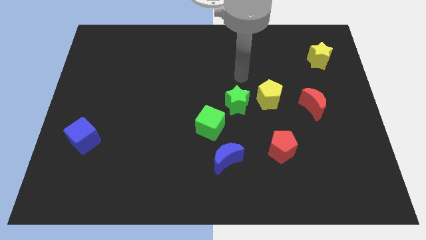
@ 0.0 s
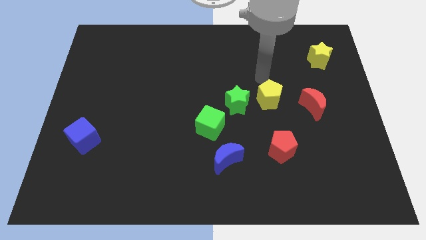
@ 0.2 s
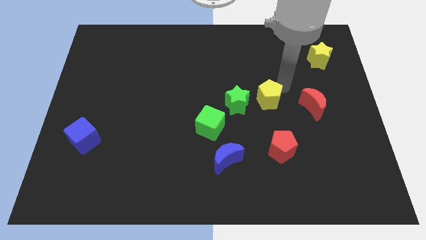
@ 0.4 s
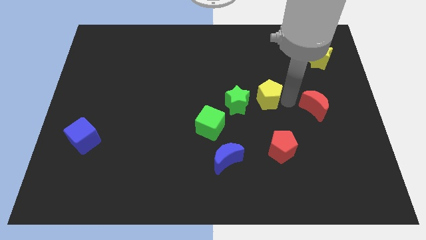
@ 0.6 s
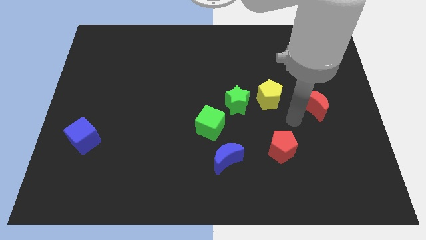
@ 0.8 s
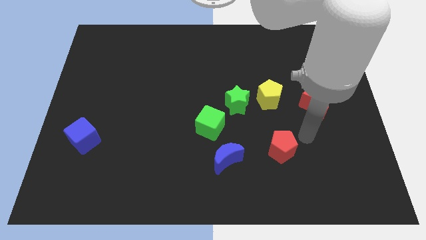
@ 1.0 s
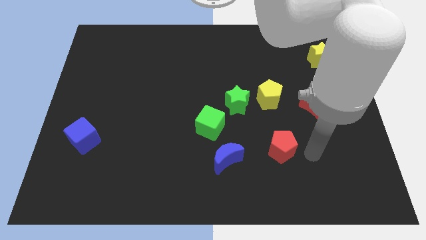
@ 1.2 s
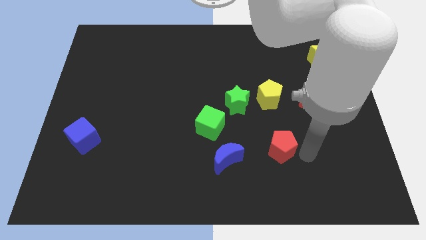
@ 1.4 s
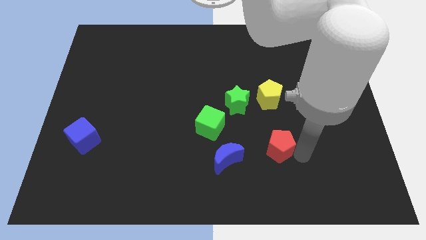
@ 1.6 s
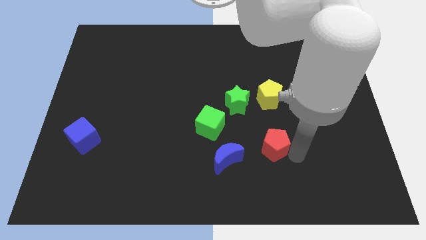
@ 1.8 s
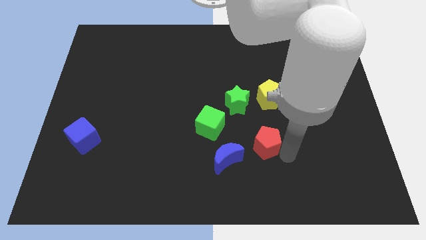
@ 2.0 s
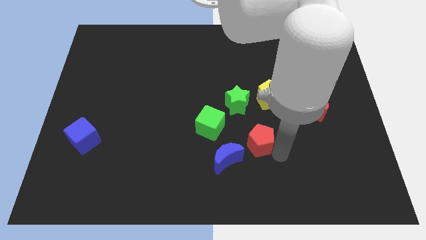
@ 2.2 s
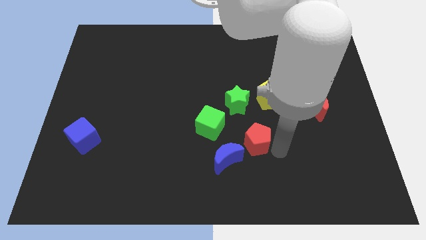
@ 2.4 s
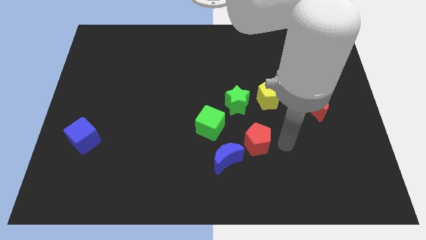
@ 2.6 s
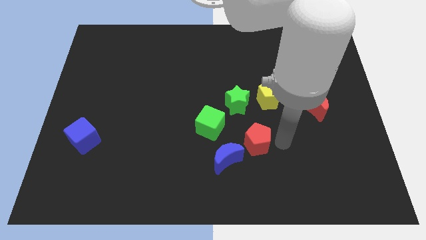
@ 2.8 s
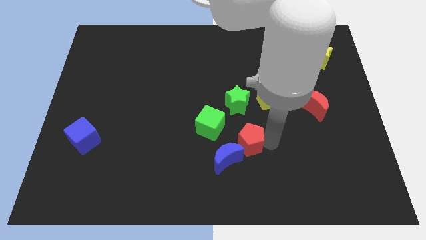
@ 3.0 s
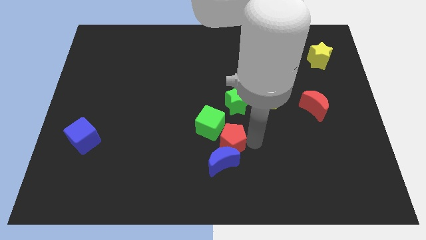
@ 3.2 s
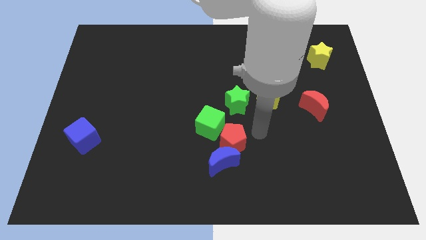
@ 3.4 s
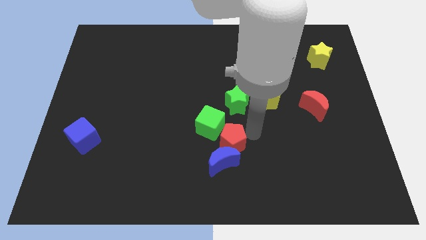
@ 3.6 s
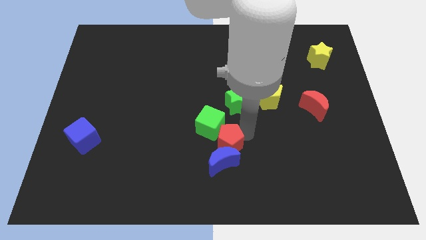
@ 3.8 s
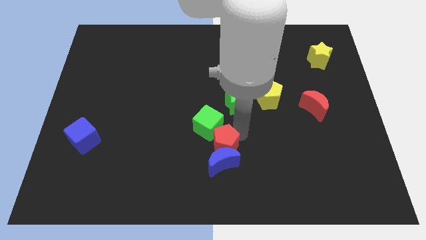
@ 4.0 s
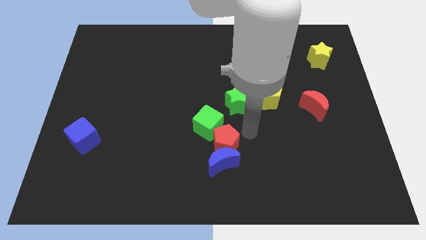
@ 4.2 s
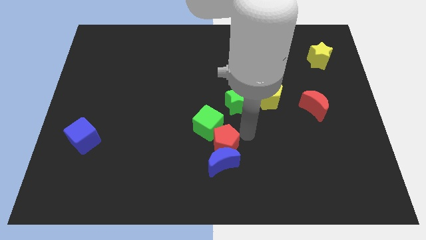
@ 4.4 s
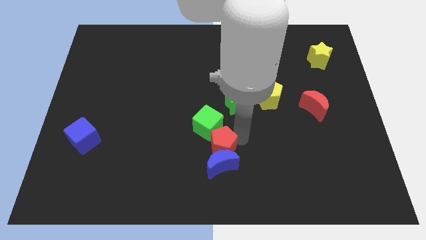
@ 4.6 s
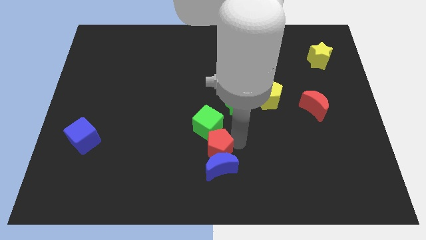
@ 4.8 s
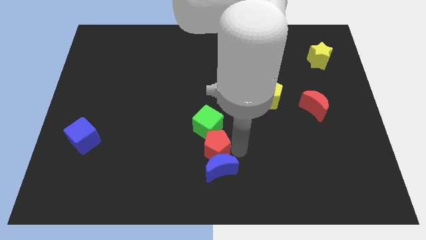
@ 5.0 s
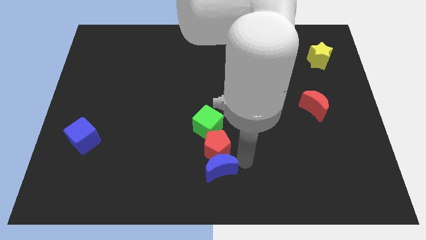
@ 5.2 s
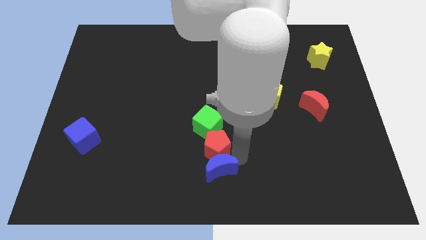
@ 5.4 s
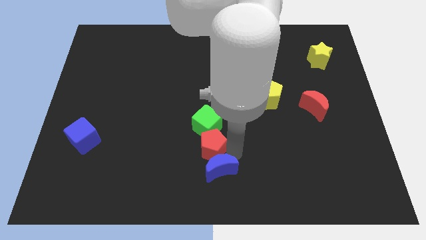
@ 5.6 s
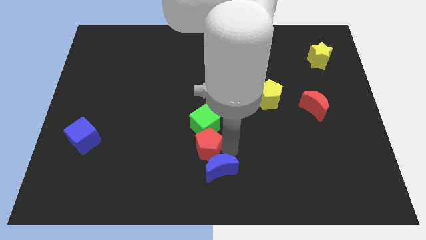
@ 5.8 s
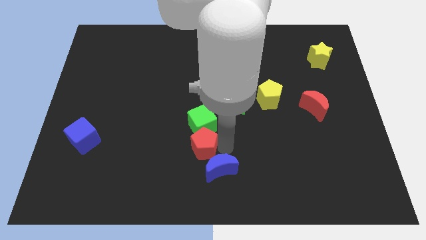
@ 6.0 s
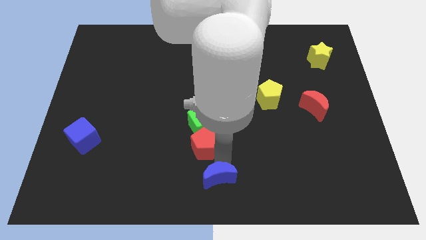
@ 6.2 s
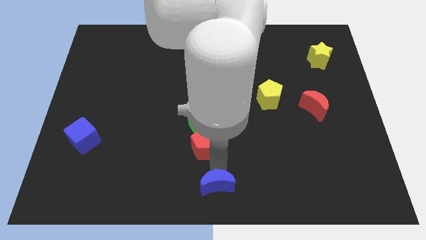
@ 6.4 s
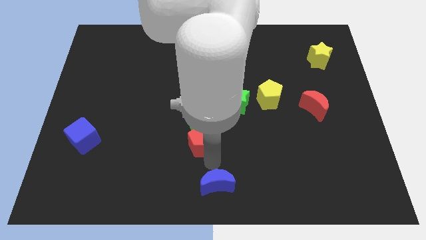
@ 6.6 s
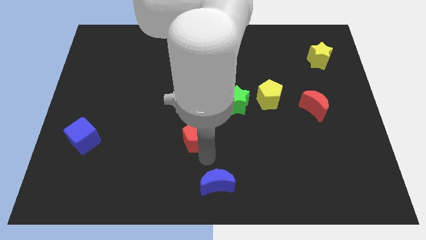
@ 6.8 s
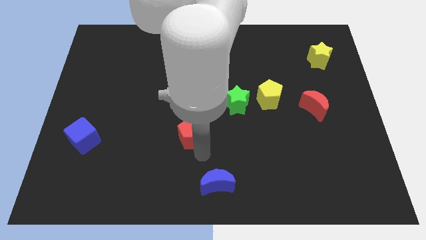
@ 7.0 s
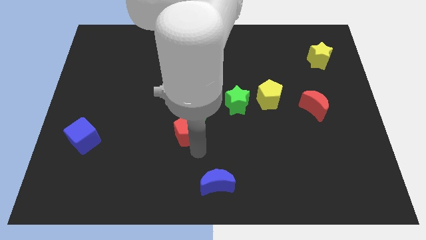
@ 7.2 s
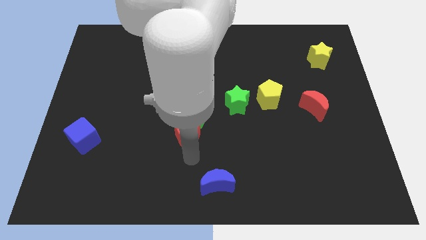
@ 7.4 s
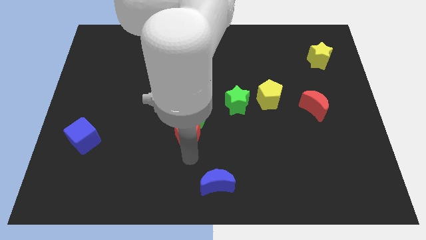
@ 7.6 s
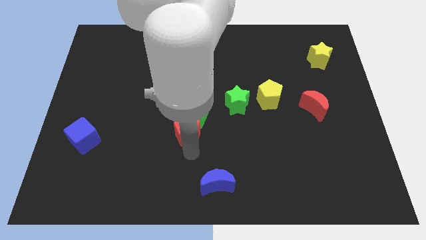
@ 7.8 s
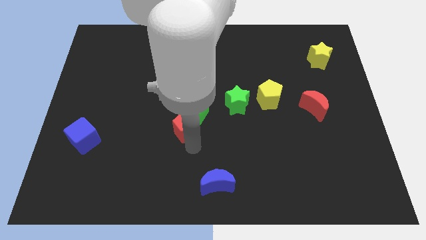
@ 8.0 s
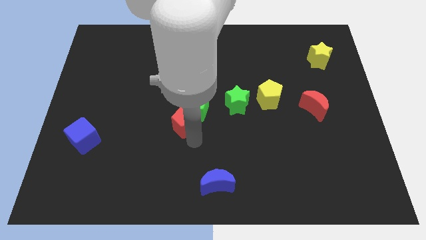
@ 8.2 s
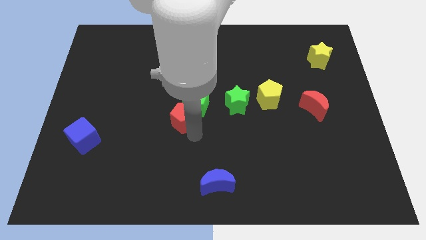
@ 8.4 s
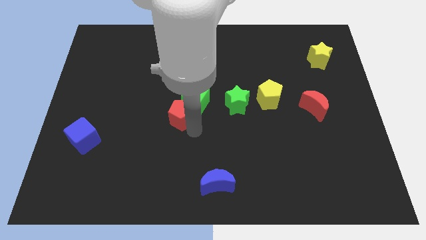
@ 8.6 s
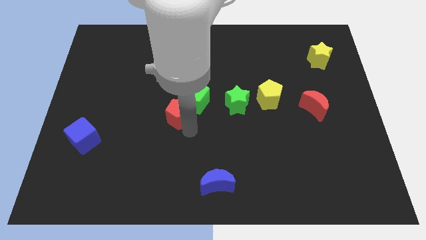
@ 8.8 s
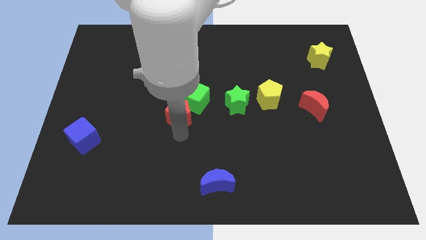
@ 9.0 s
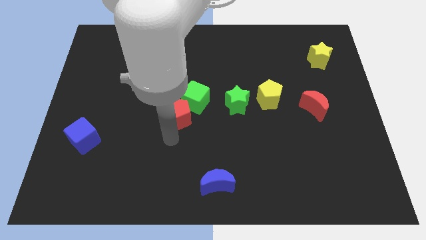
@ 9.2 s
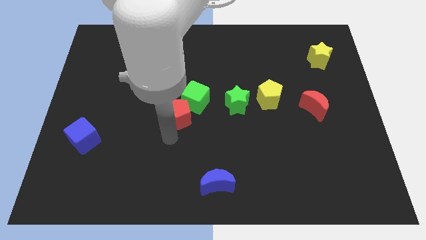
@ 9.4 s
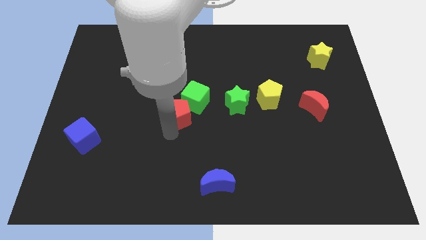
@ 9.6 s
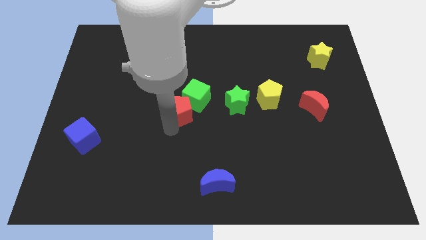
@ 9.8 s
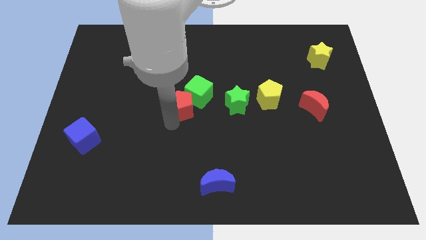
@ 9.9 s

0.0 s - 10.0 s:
slide the red pentagon upwards and to the left diagonally

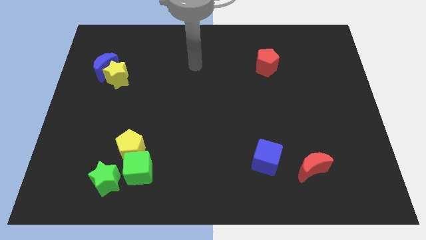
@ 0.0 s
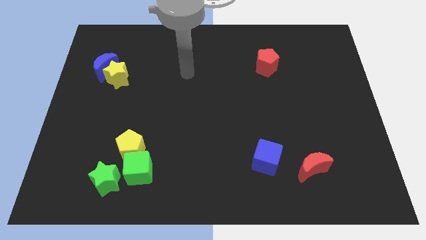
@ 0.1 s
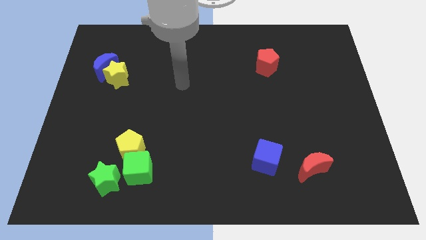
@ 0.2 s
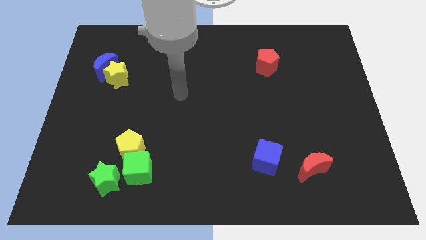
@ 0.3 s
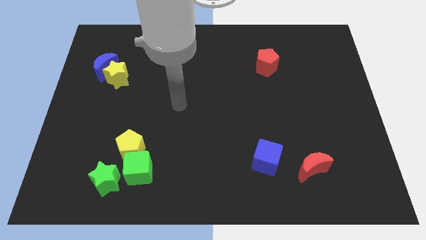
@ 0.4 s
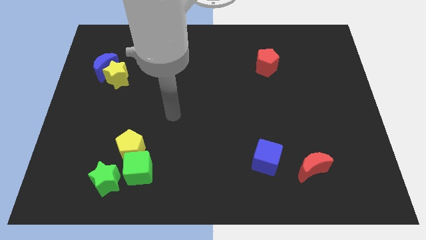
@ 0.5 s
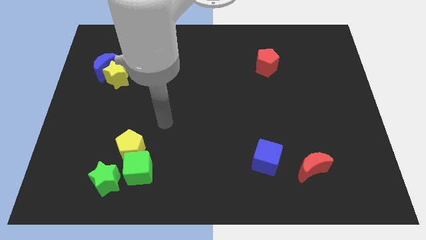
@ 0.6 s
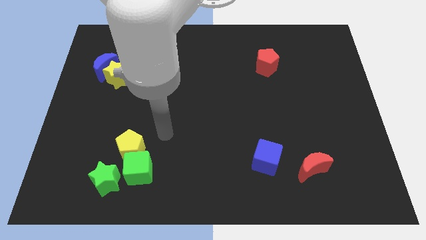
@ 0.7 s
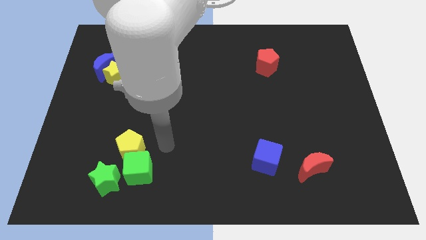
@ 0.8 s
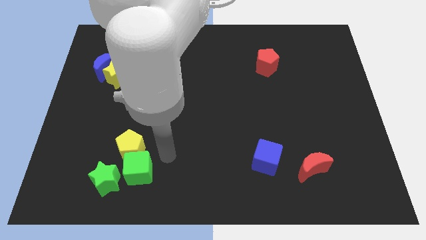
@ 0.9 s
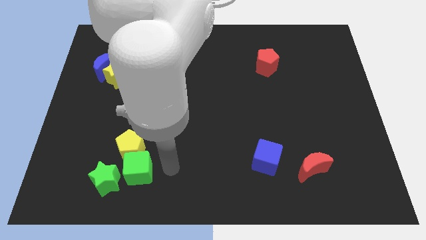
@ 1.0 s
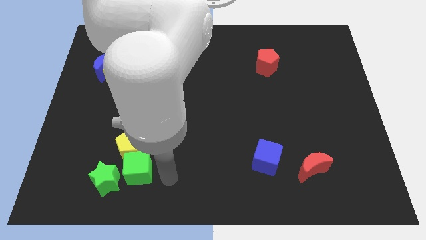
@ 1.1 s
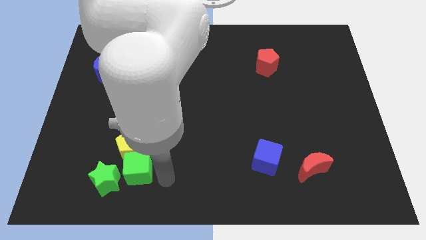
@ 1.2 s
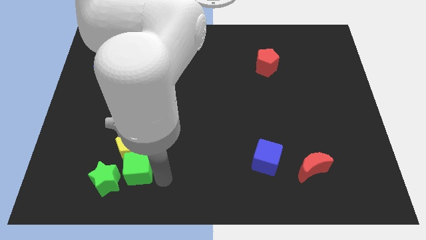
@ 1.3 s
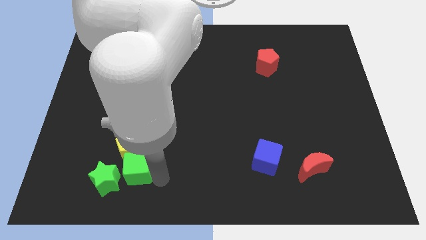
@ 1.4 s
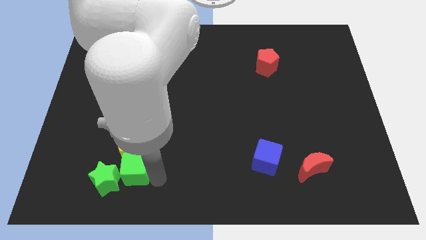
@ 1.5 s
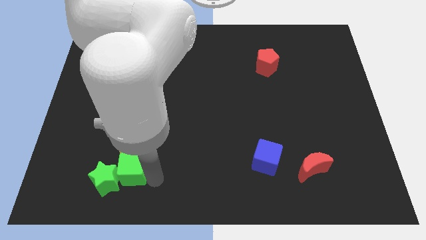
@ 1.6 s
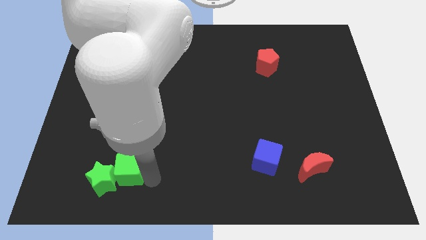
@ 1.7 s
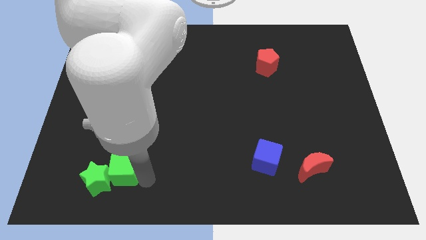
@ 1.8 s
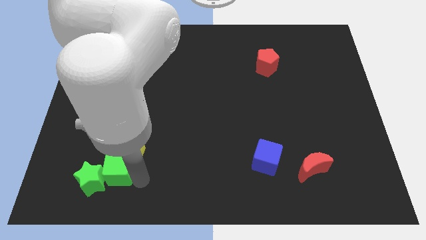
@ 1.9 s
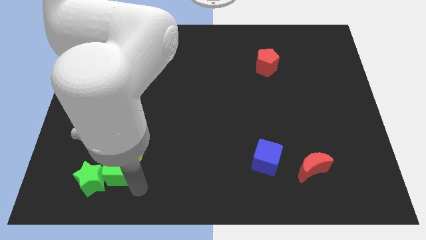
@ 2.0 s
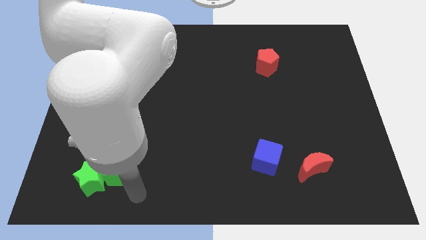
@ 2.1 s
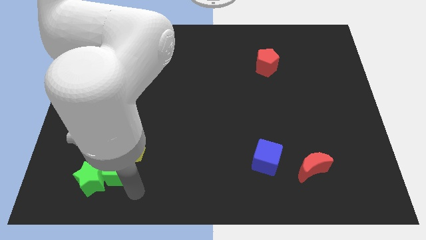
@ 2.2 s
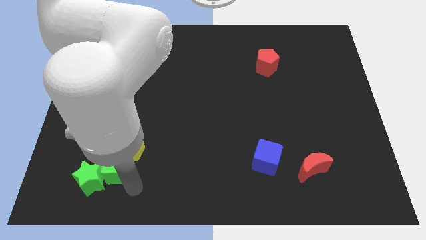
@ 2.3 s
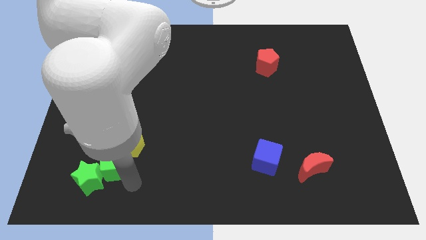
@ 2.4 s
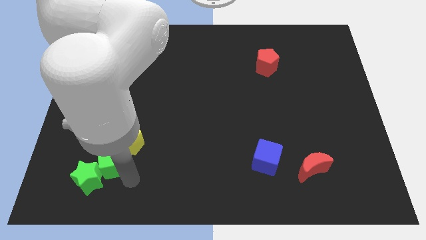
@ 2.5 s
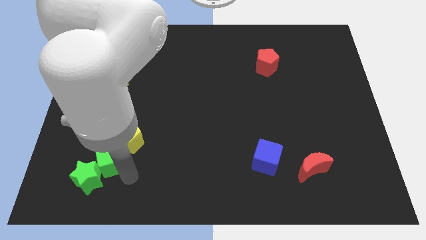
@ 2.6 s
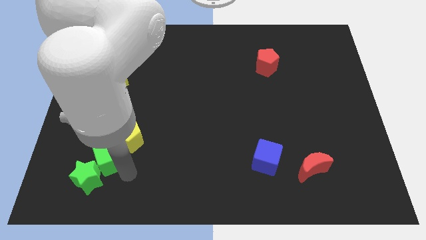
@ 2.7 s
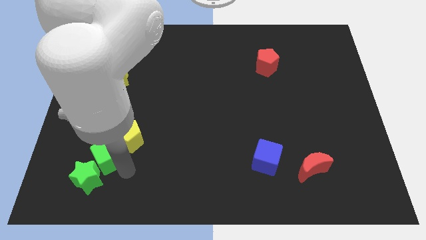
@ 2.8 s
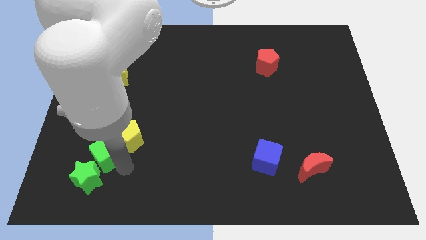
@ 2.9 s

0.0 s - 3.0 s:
slightly move the green cube upwards and left

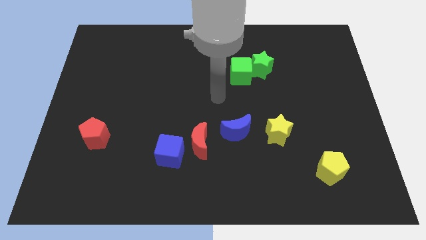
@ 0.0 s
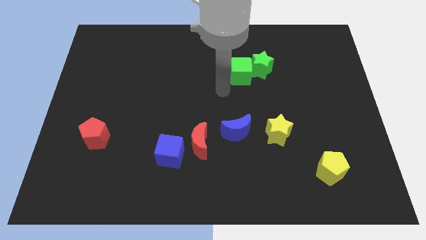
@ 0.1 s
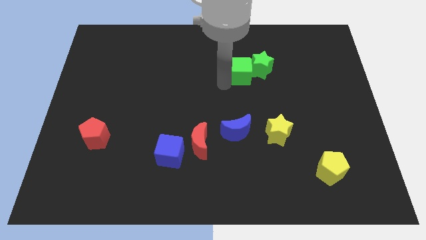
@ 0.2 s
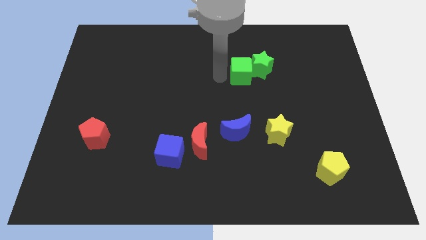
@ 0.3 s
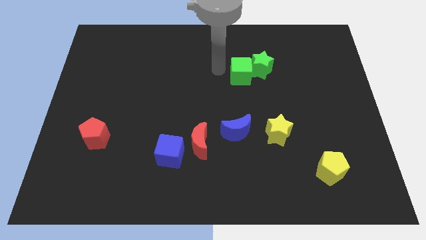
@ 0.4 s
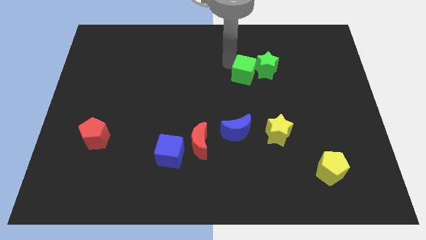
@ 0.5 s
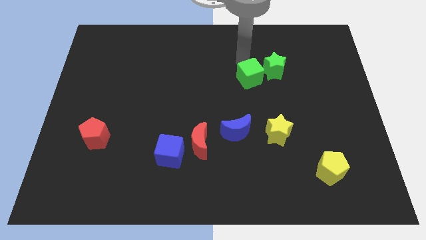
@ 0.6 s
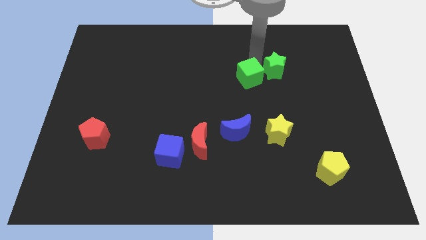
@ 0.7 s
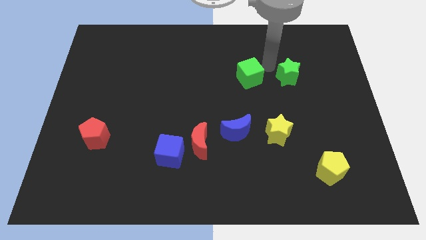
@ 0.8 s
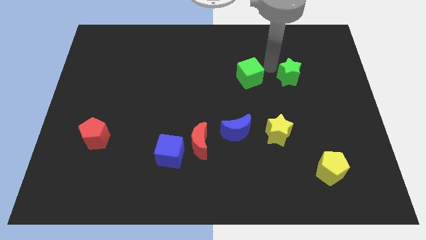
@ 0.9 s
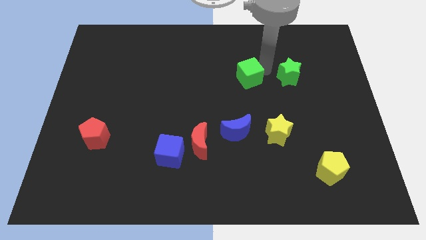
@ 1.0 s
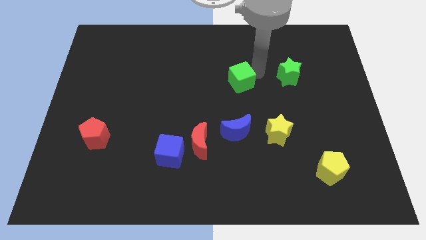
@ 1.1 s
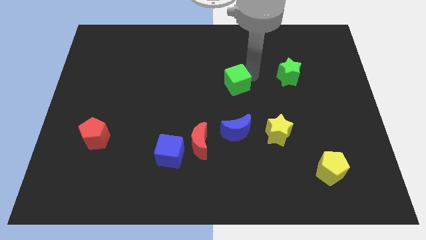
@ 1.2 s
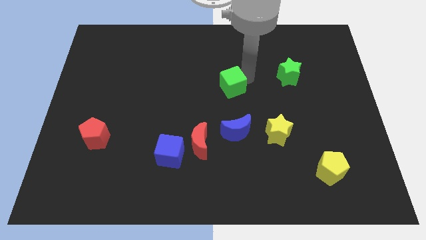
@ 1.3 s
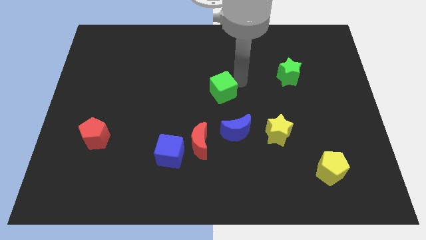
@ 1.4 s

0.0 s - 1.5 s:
push the green cube downwards and then to the left a bit
